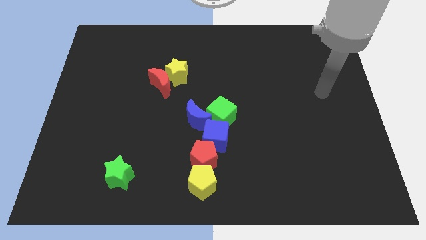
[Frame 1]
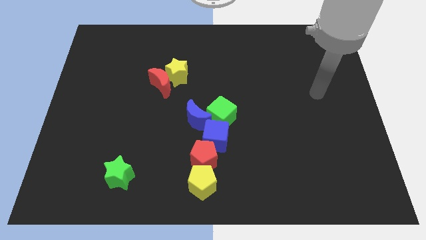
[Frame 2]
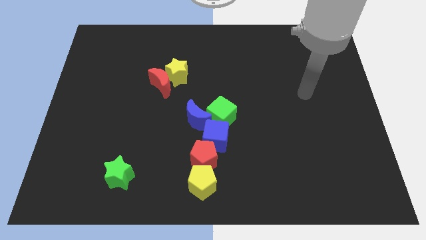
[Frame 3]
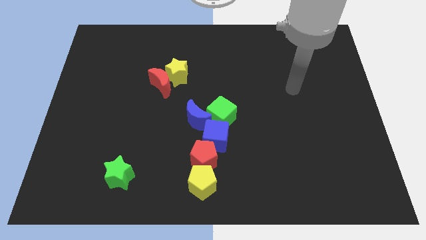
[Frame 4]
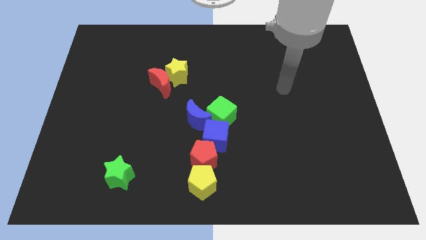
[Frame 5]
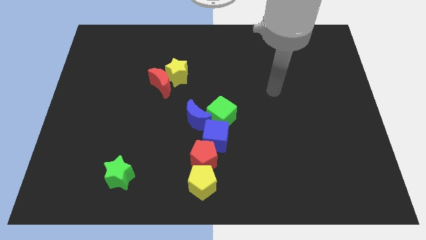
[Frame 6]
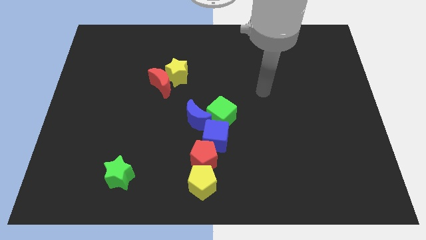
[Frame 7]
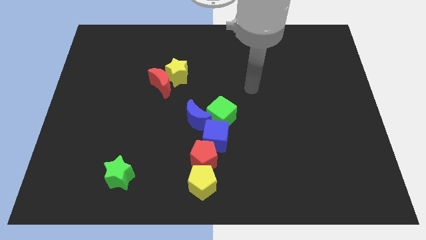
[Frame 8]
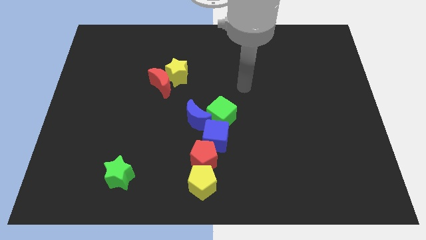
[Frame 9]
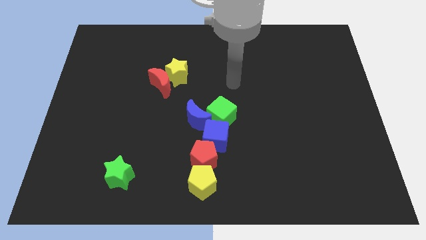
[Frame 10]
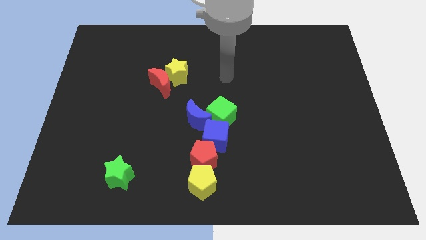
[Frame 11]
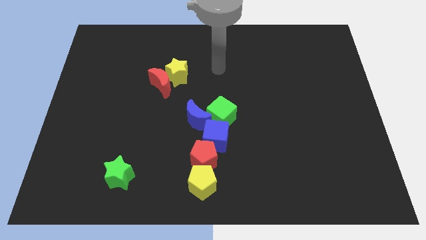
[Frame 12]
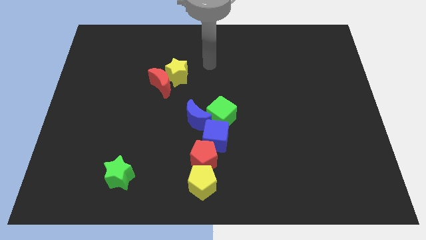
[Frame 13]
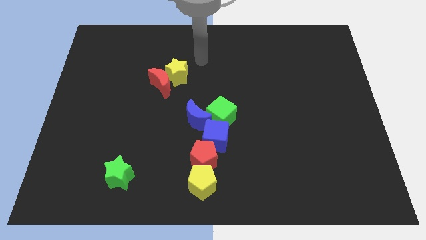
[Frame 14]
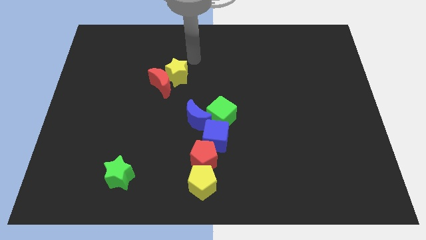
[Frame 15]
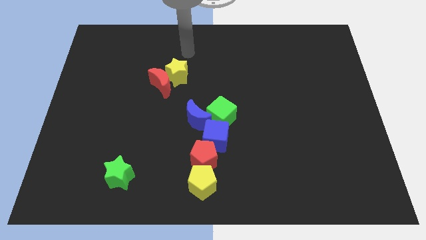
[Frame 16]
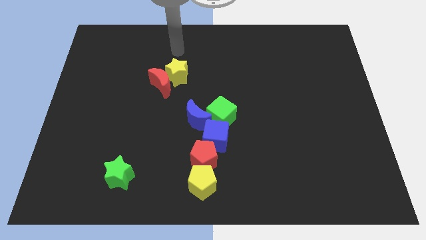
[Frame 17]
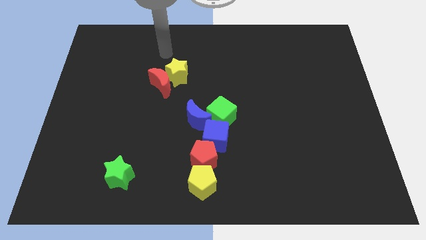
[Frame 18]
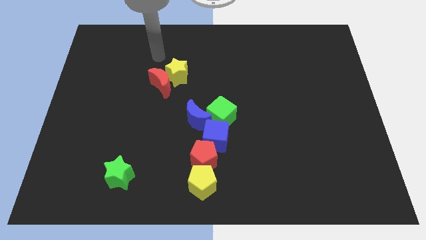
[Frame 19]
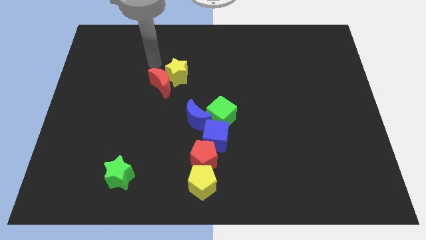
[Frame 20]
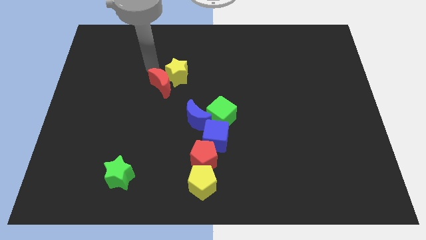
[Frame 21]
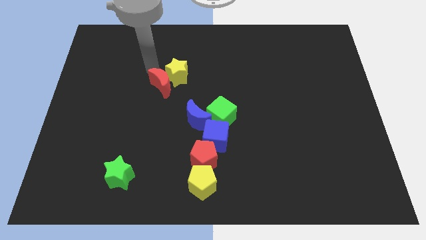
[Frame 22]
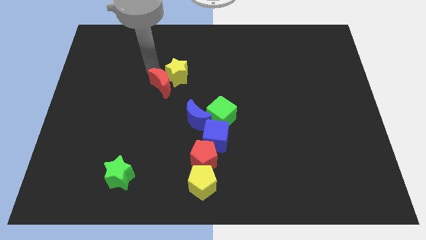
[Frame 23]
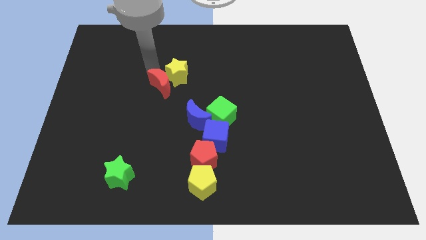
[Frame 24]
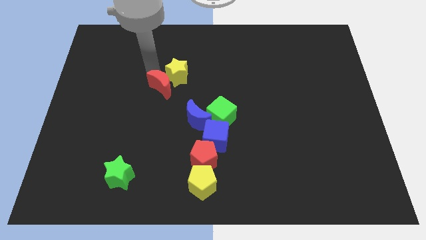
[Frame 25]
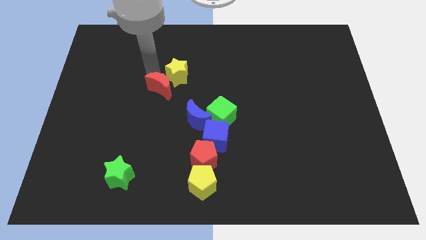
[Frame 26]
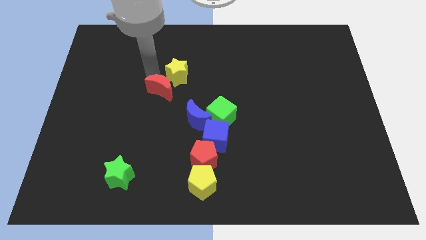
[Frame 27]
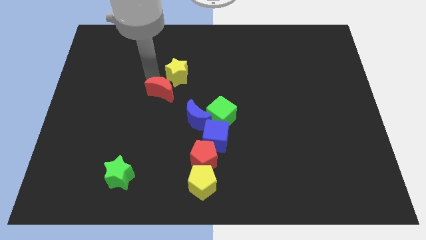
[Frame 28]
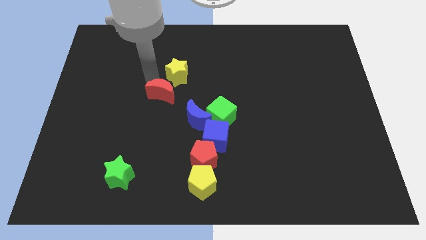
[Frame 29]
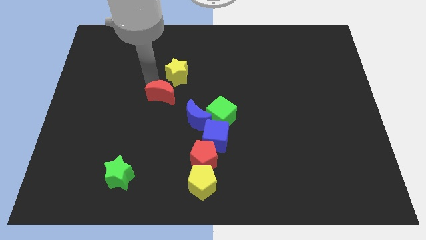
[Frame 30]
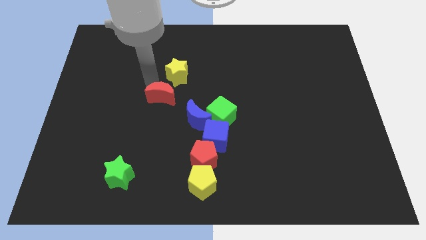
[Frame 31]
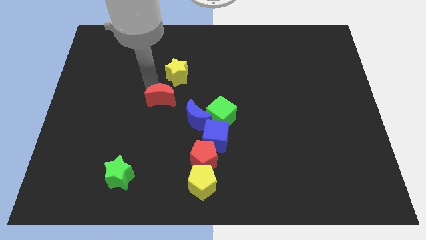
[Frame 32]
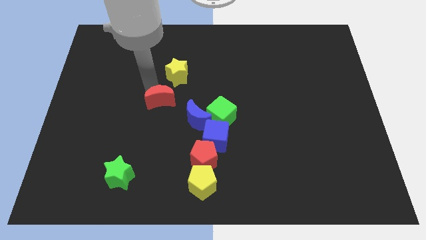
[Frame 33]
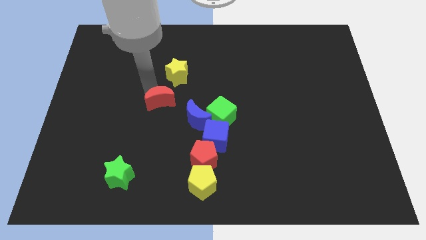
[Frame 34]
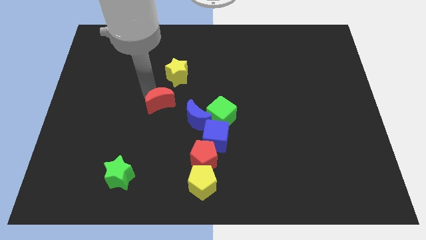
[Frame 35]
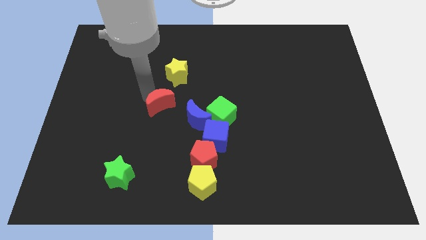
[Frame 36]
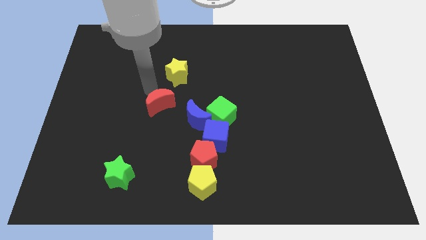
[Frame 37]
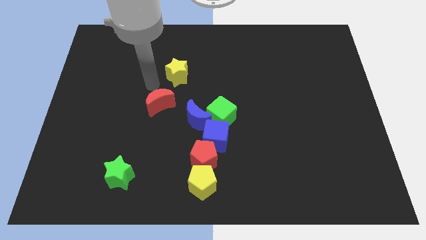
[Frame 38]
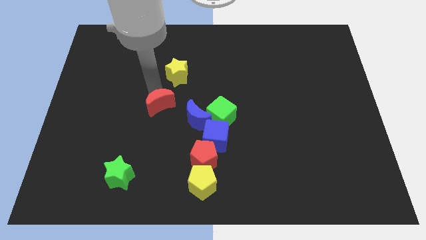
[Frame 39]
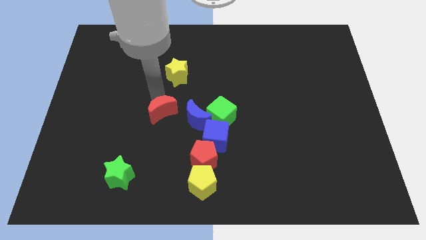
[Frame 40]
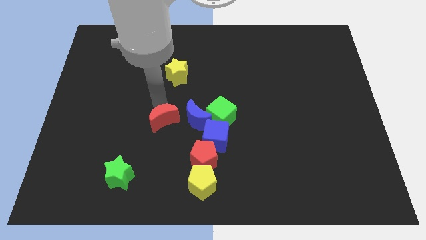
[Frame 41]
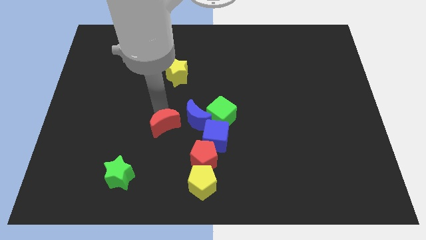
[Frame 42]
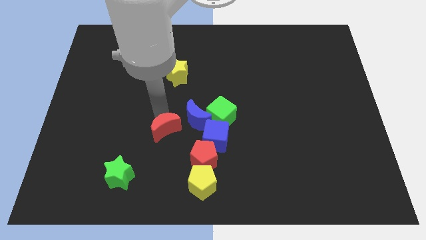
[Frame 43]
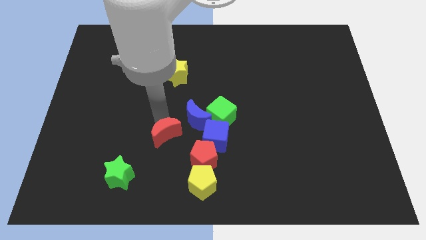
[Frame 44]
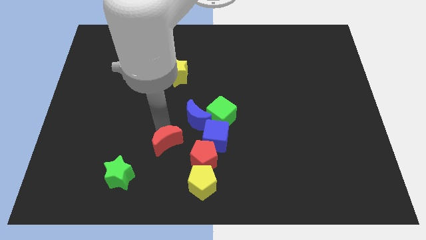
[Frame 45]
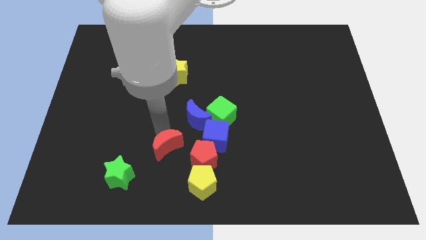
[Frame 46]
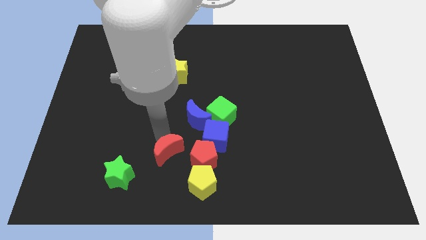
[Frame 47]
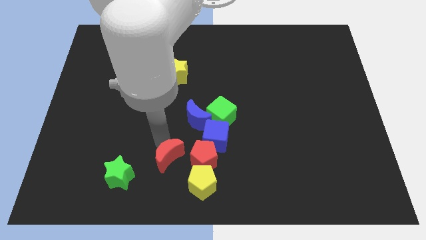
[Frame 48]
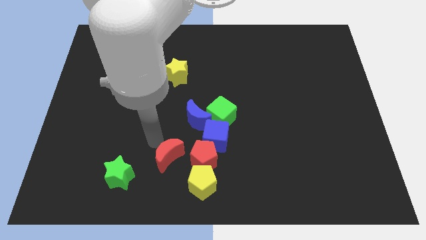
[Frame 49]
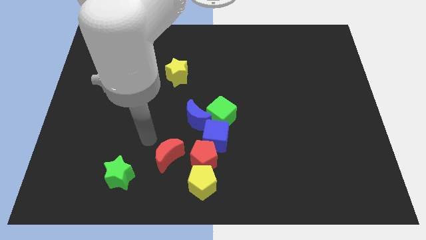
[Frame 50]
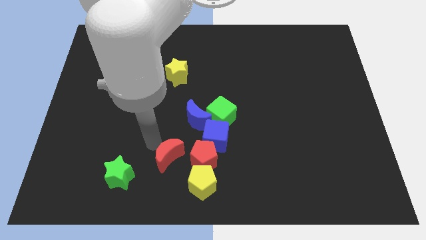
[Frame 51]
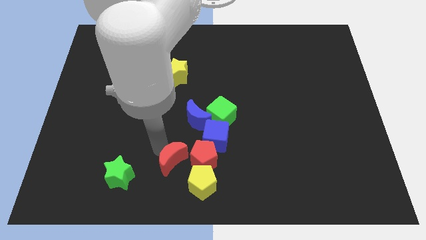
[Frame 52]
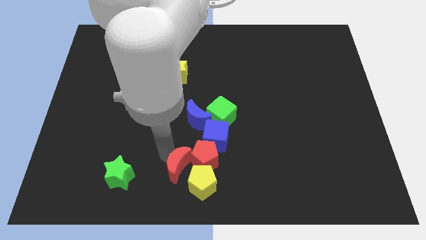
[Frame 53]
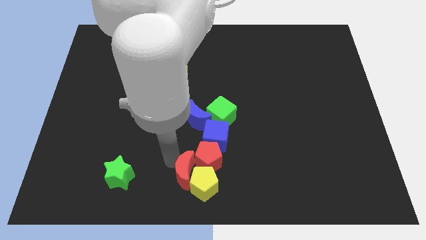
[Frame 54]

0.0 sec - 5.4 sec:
move the red moon close to the yellow pentagon
